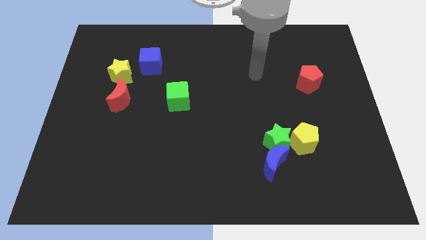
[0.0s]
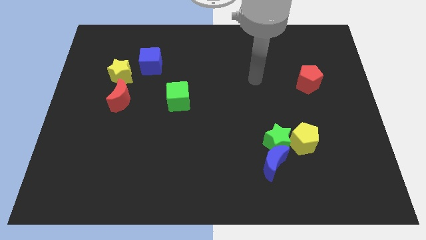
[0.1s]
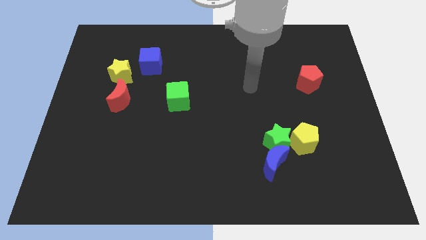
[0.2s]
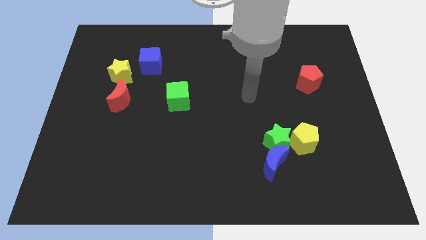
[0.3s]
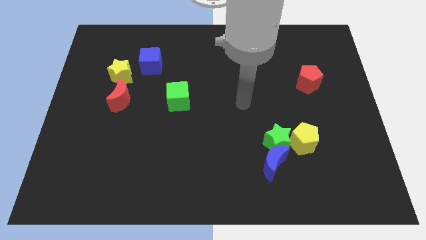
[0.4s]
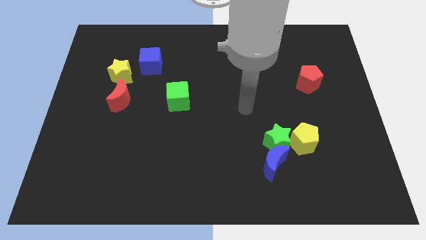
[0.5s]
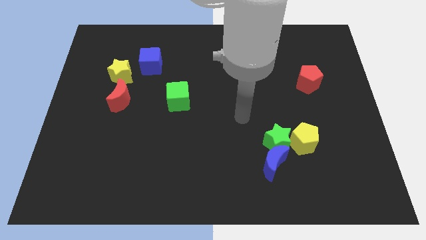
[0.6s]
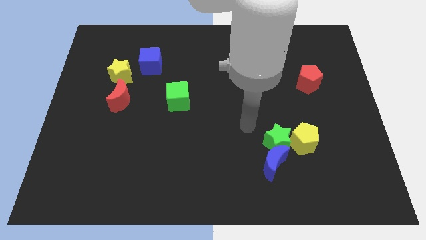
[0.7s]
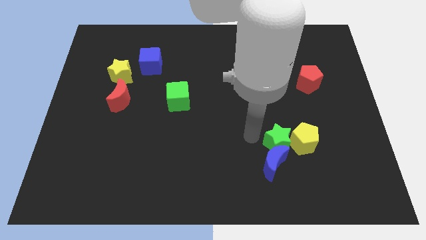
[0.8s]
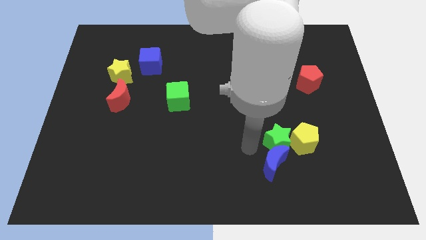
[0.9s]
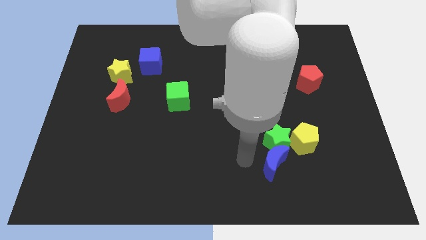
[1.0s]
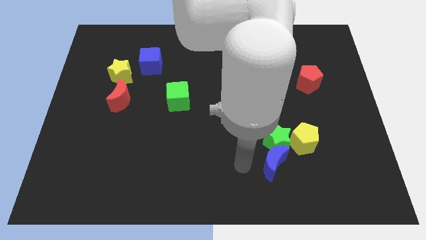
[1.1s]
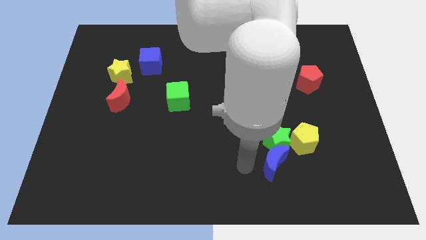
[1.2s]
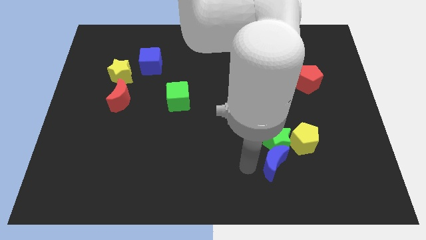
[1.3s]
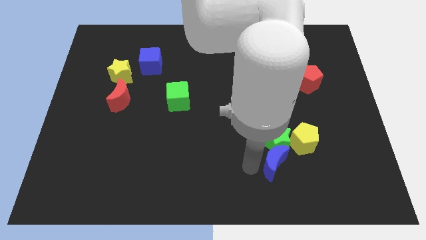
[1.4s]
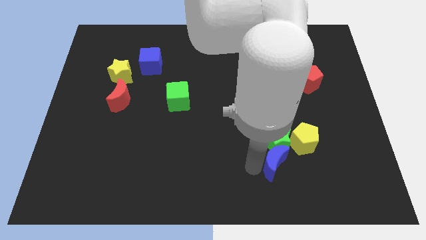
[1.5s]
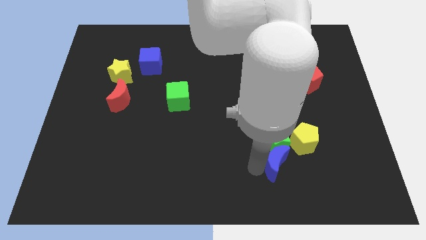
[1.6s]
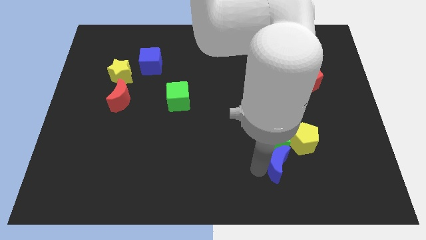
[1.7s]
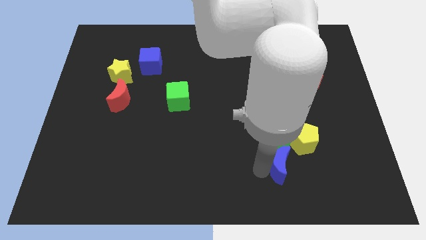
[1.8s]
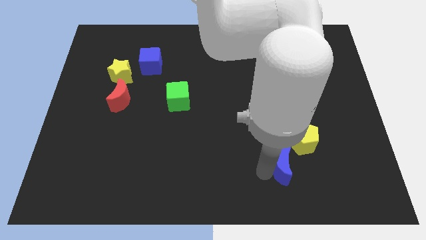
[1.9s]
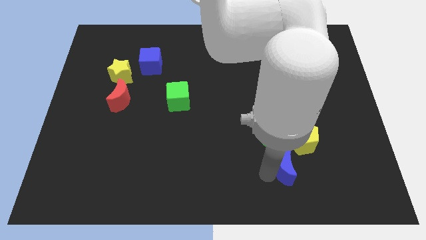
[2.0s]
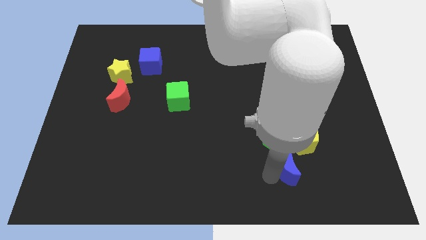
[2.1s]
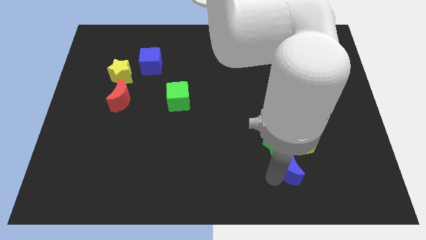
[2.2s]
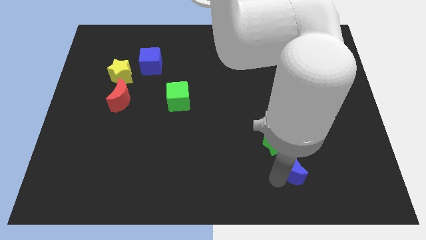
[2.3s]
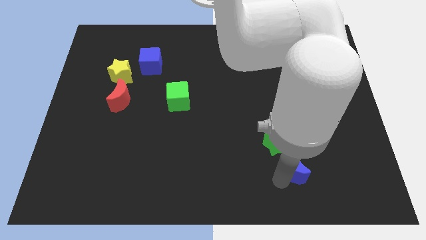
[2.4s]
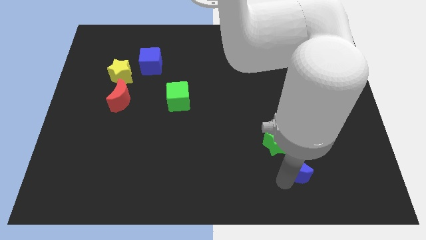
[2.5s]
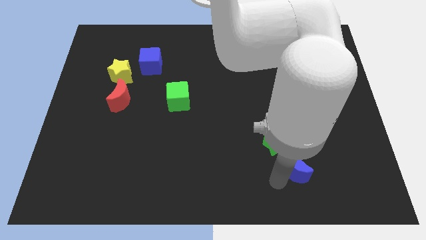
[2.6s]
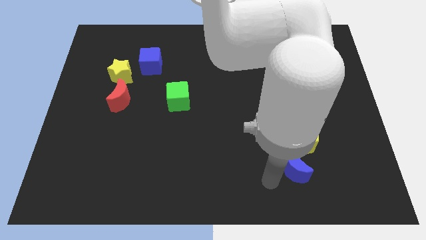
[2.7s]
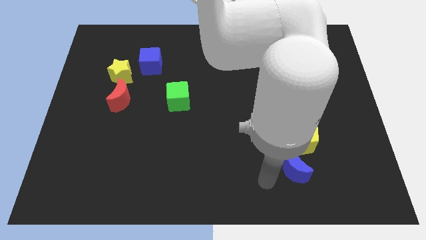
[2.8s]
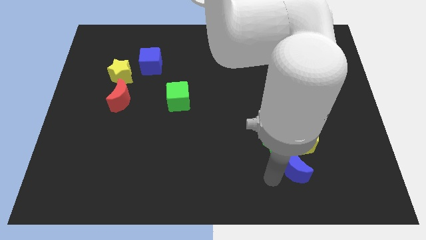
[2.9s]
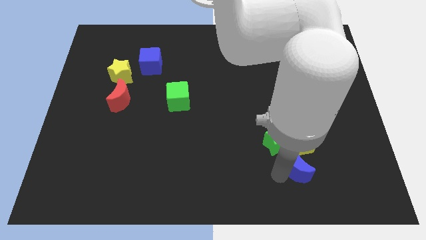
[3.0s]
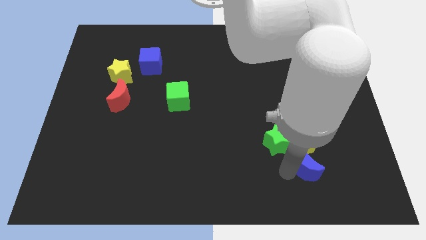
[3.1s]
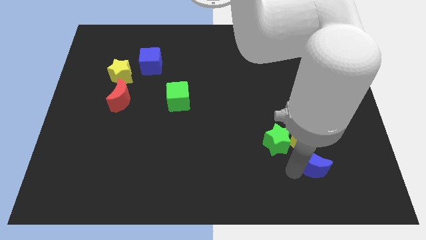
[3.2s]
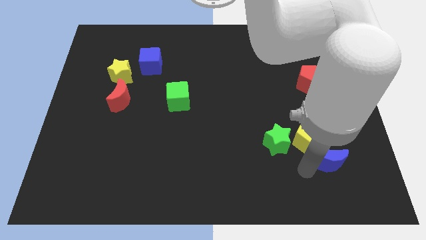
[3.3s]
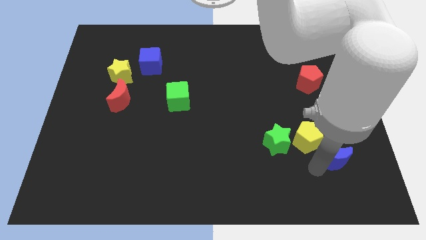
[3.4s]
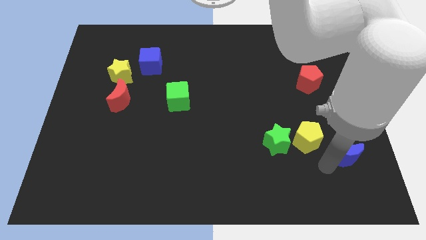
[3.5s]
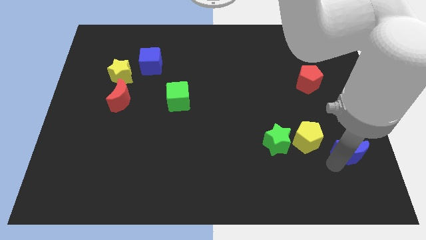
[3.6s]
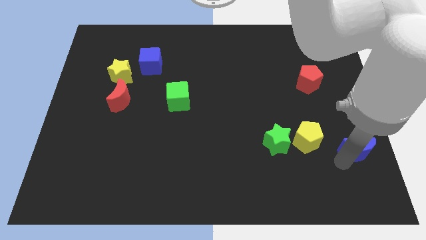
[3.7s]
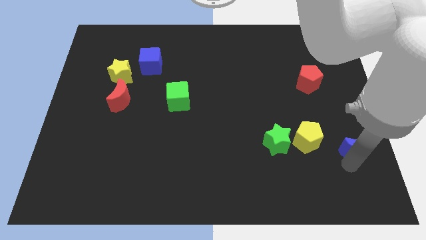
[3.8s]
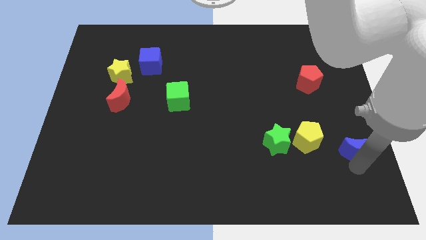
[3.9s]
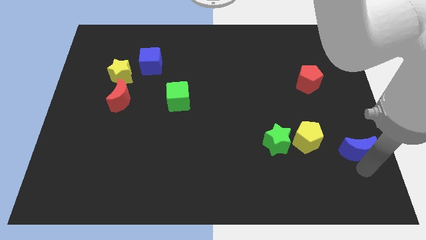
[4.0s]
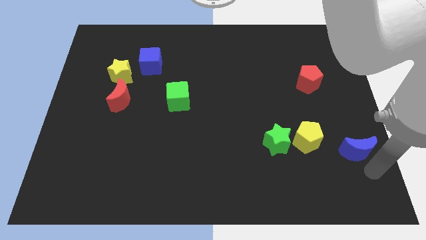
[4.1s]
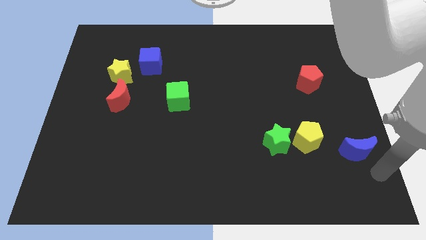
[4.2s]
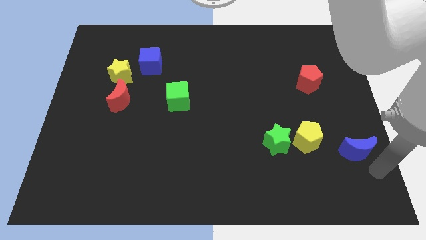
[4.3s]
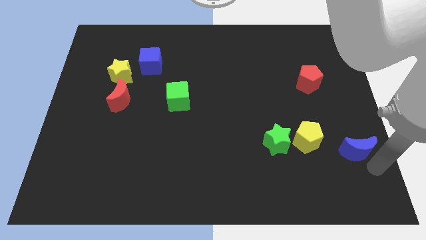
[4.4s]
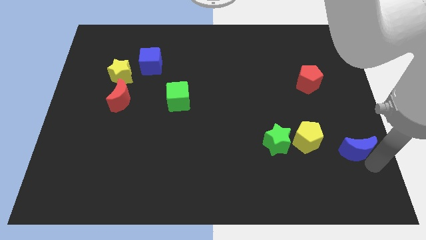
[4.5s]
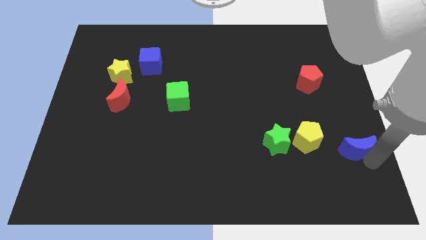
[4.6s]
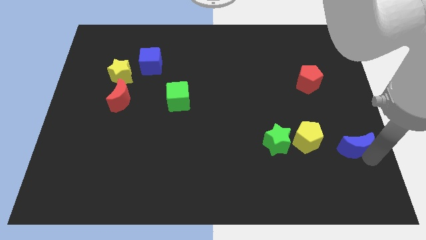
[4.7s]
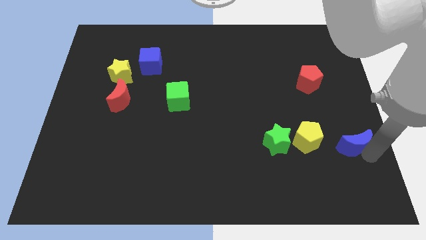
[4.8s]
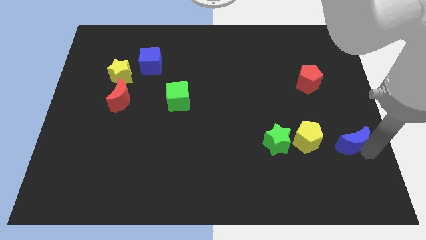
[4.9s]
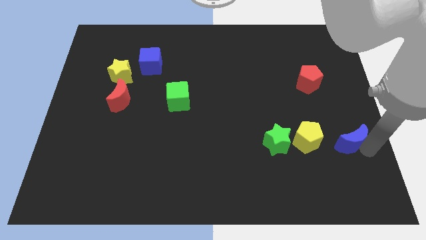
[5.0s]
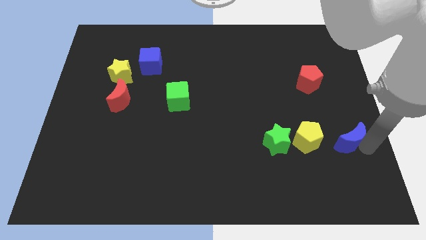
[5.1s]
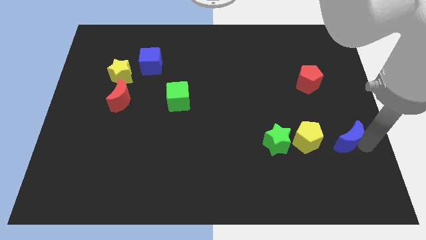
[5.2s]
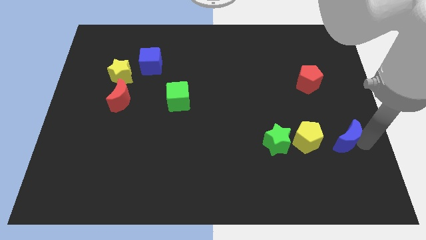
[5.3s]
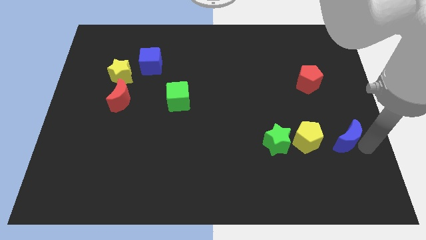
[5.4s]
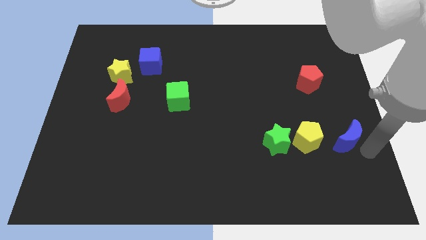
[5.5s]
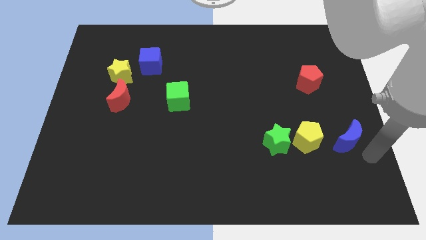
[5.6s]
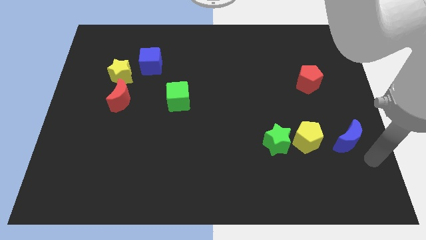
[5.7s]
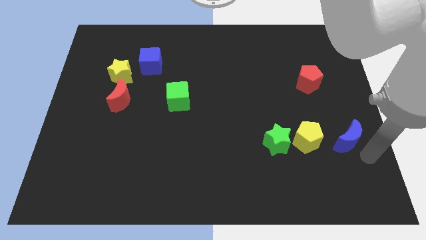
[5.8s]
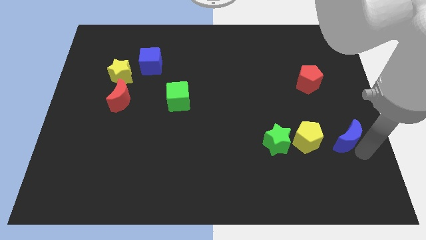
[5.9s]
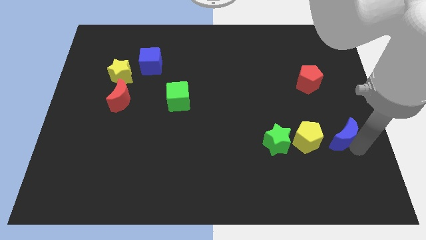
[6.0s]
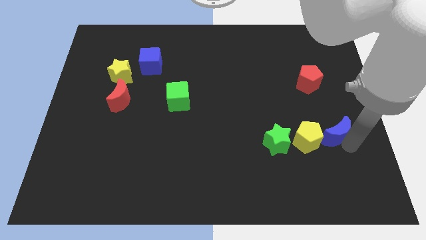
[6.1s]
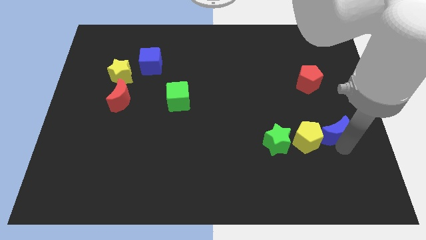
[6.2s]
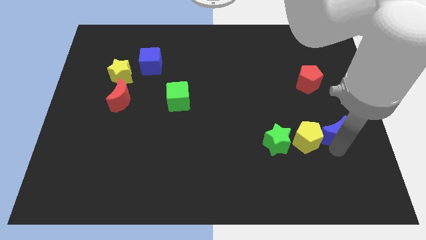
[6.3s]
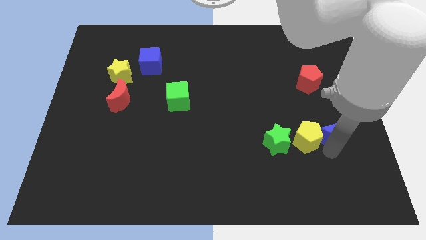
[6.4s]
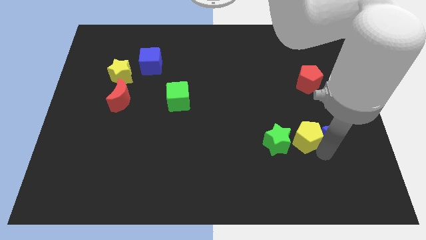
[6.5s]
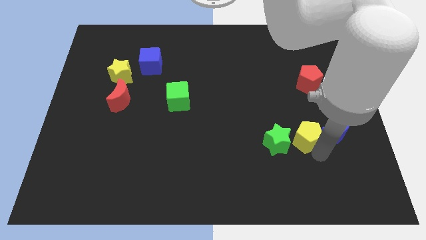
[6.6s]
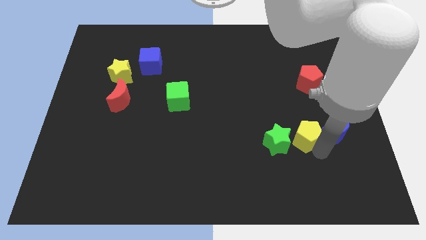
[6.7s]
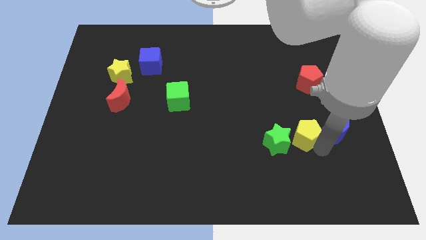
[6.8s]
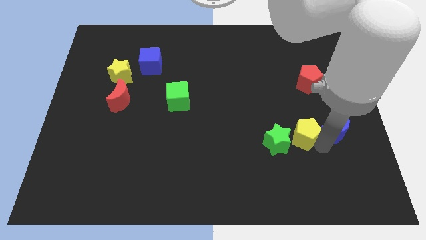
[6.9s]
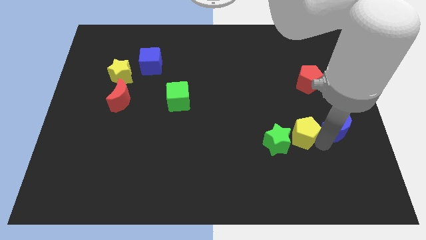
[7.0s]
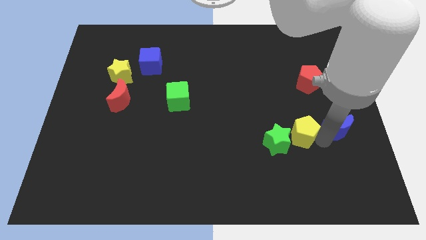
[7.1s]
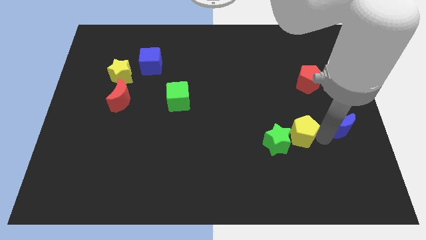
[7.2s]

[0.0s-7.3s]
push the blue moon to the right side
